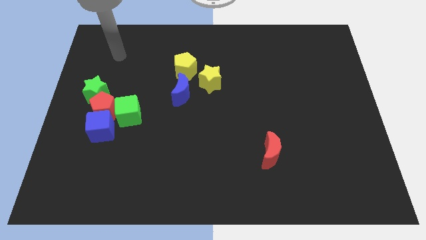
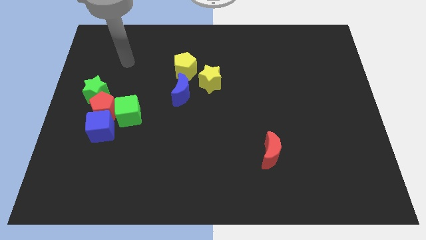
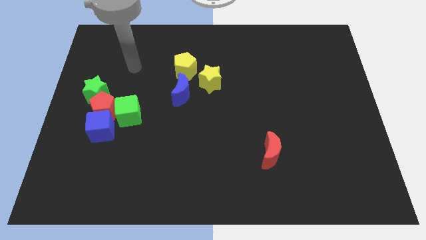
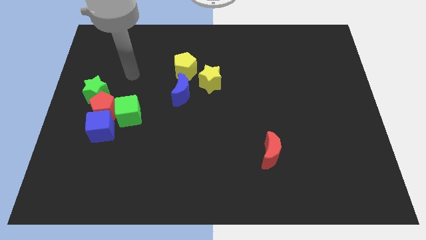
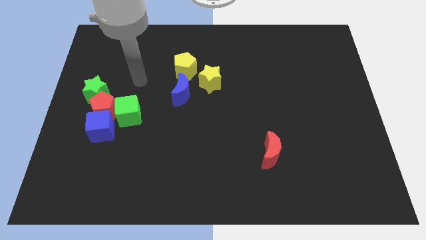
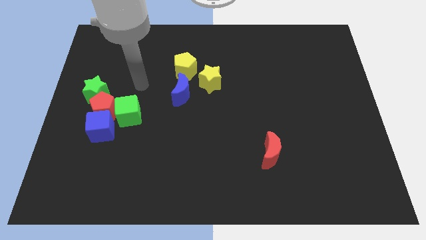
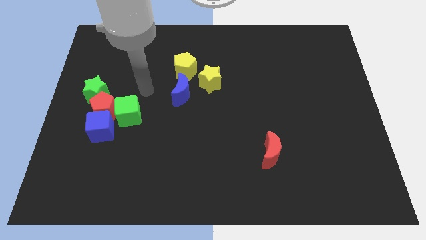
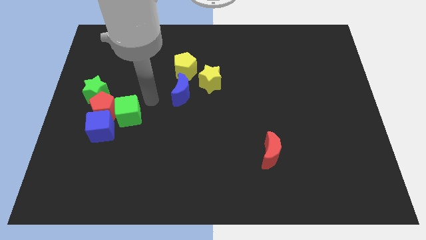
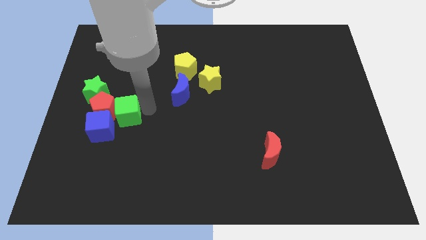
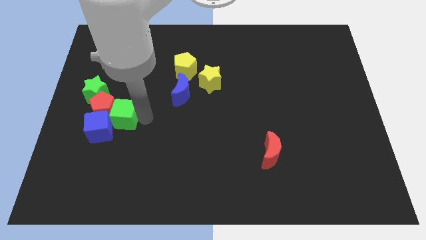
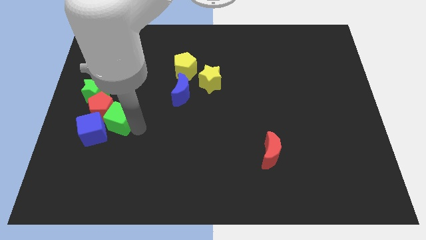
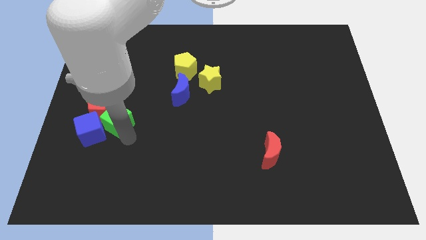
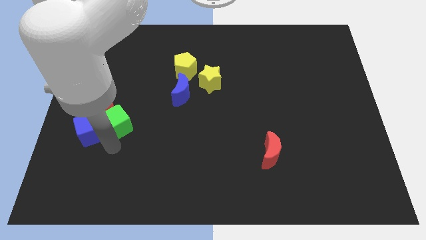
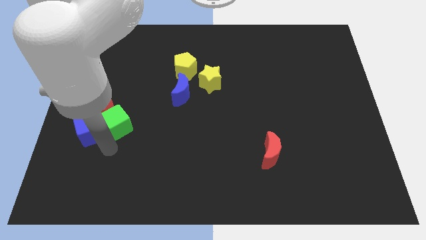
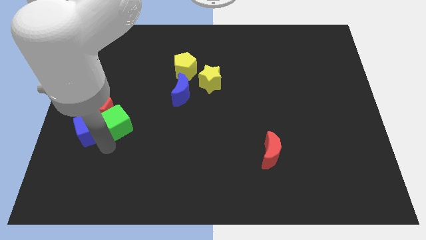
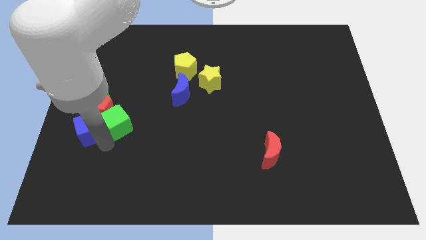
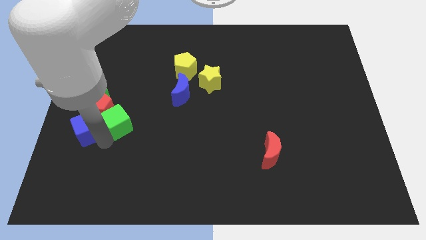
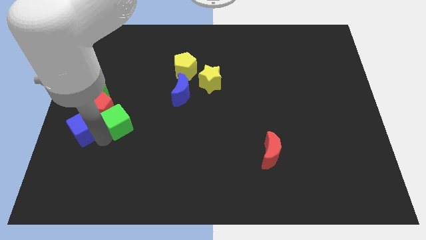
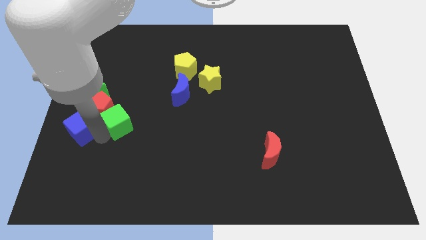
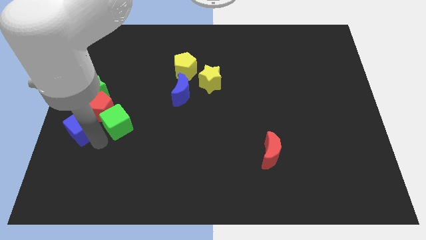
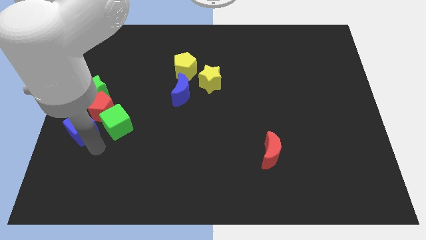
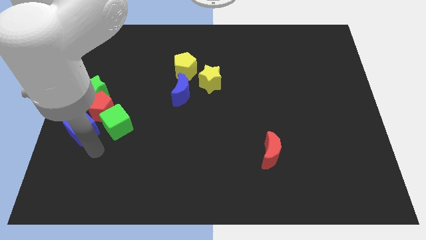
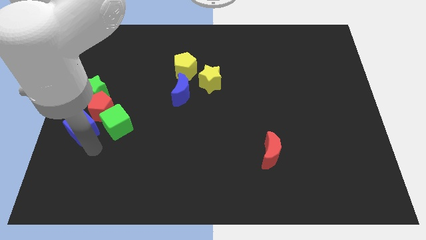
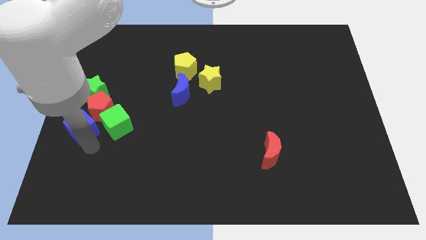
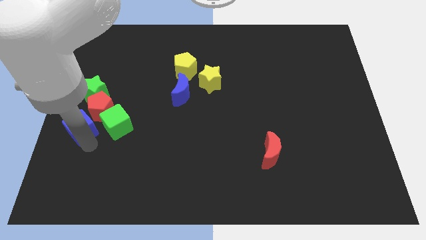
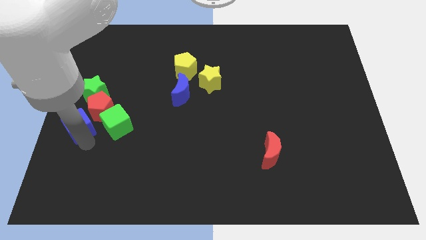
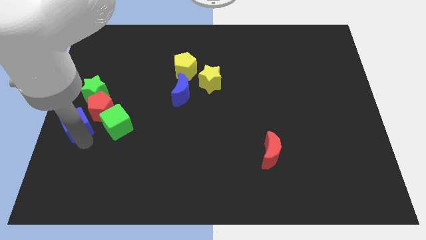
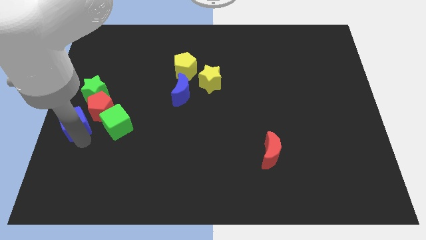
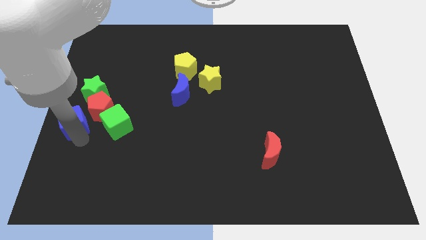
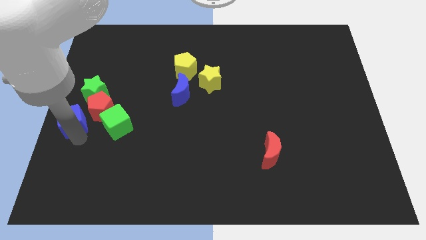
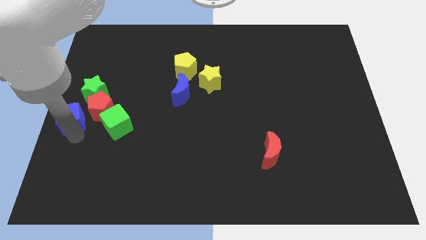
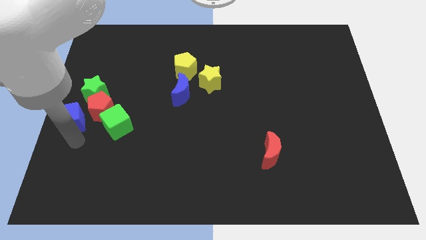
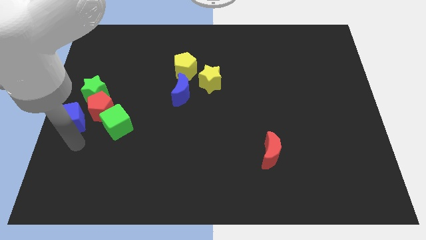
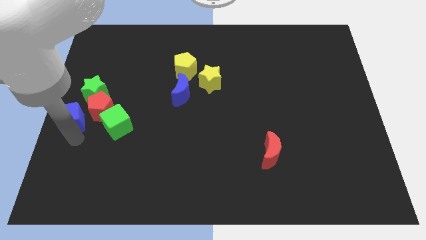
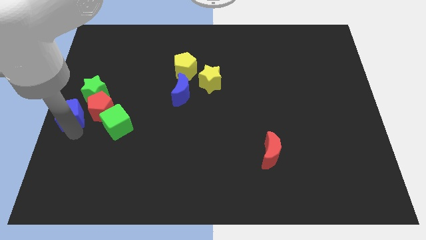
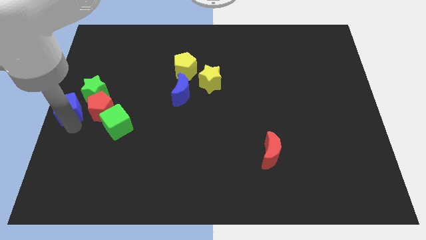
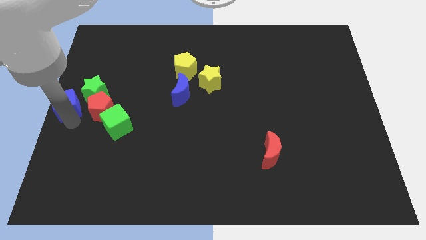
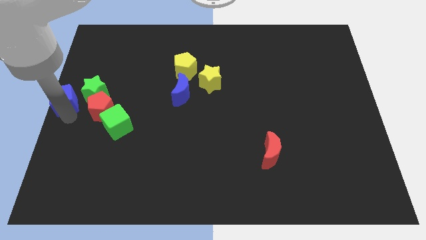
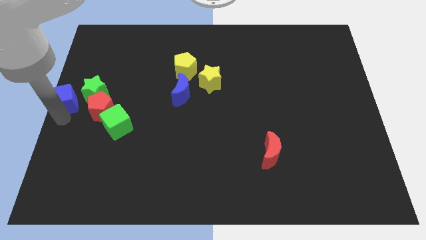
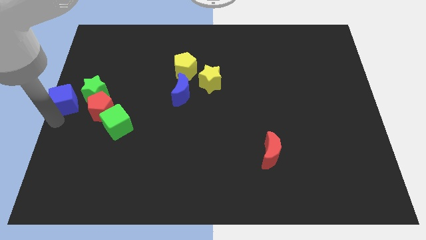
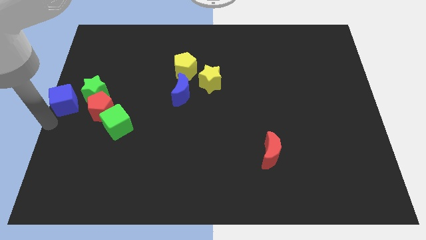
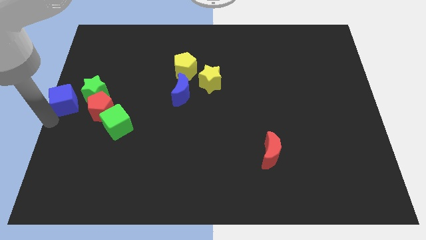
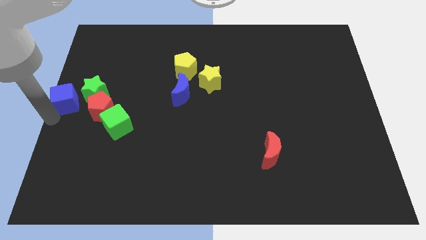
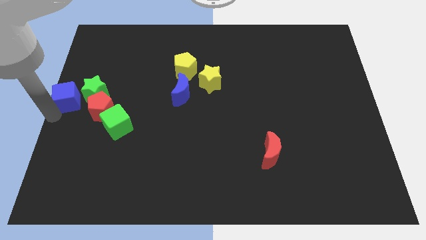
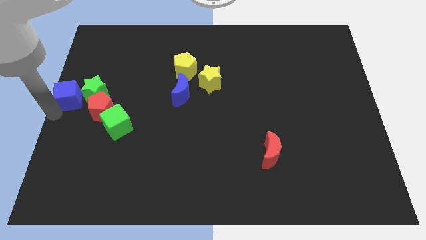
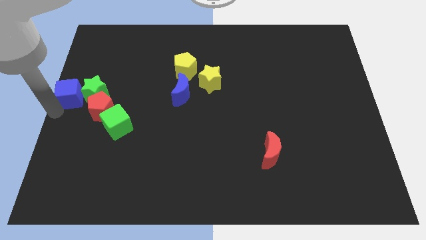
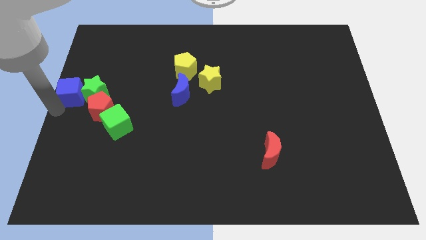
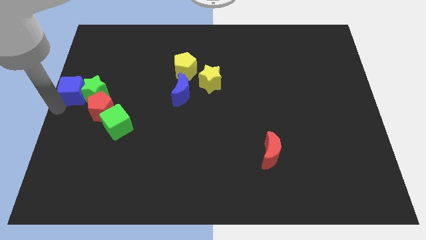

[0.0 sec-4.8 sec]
slide the blue cube up slightly

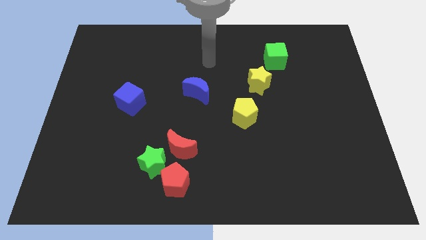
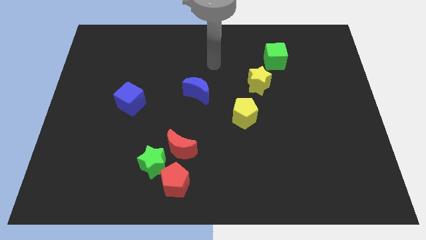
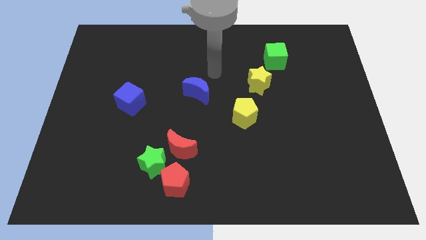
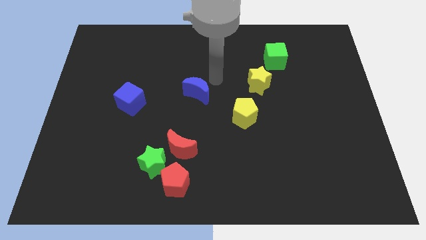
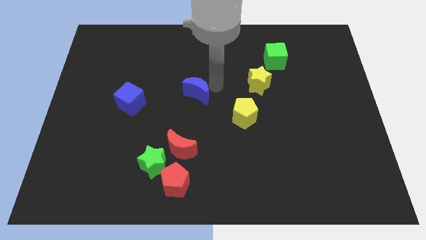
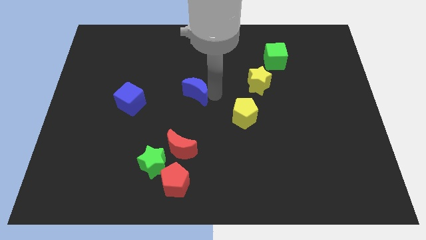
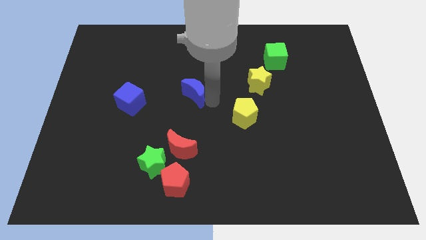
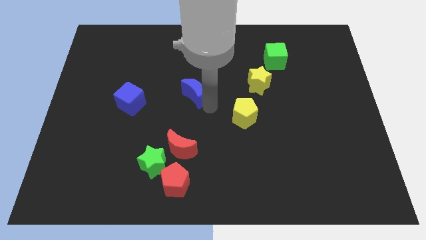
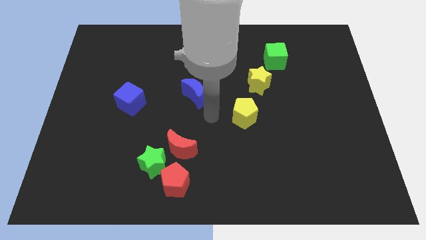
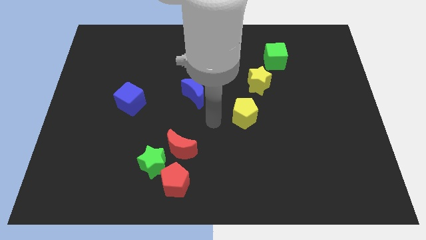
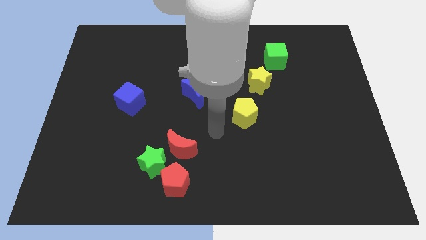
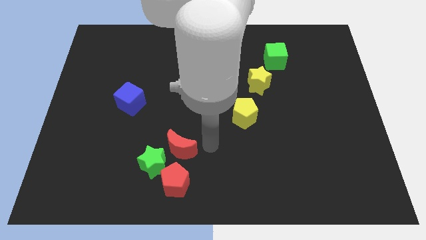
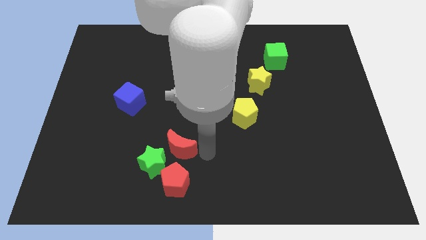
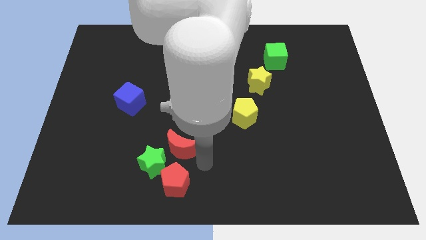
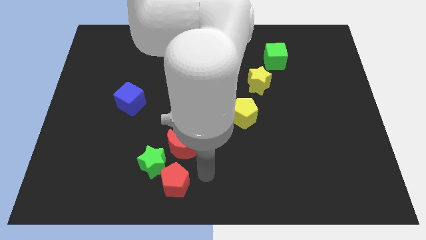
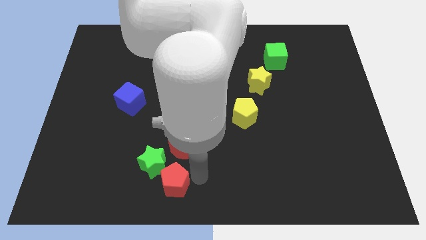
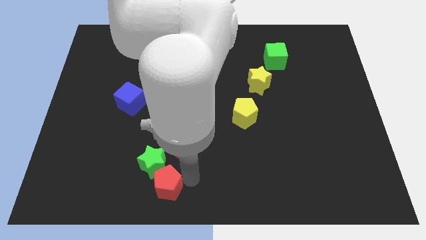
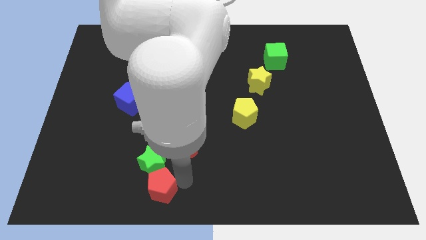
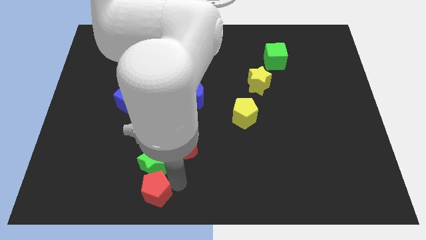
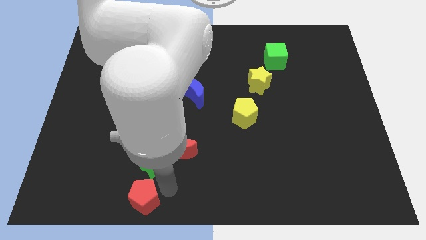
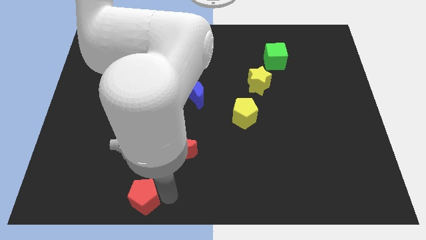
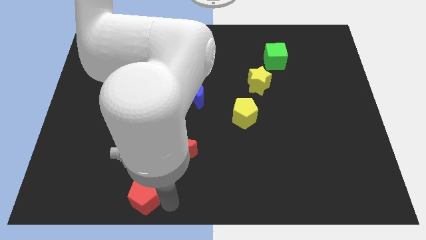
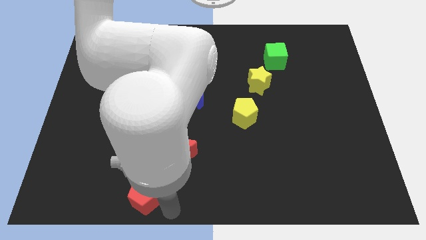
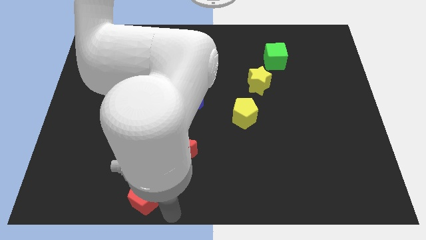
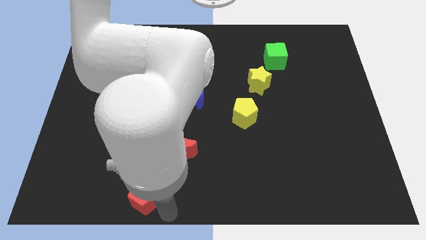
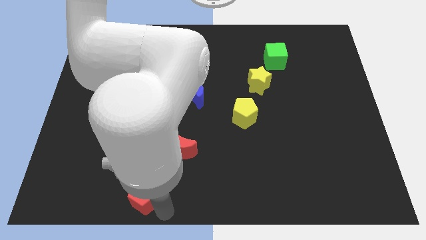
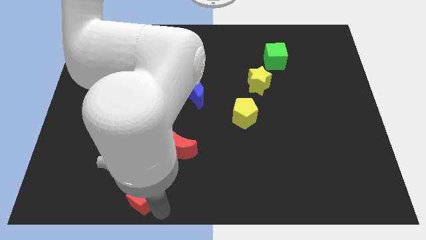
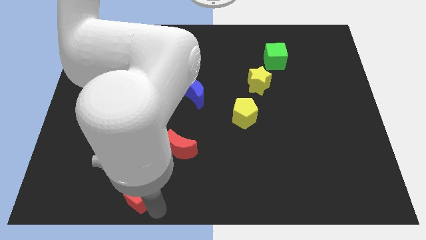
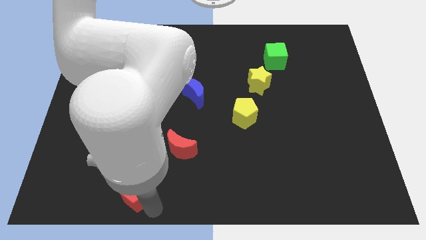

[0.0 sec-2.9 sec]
slightly move the red pentagon left
